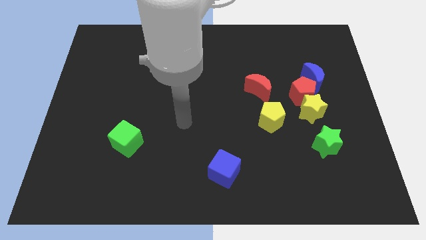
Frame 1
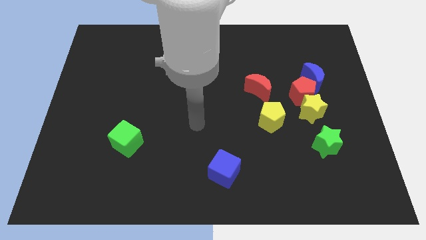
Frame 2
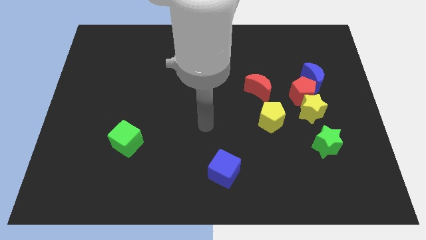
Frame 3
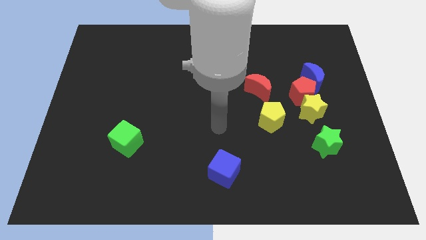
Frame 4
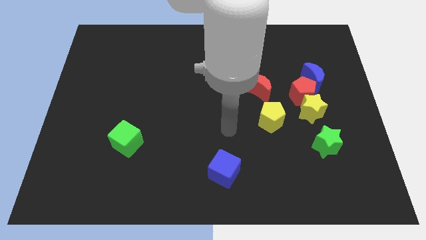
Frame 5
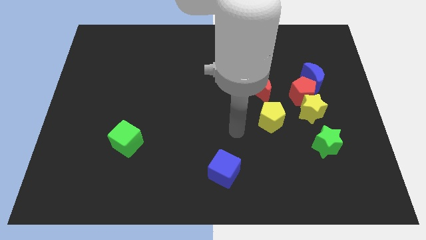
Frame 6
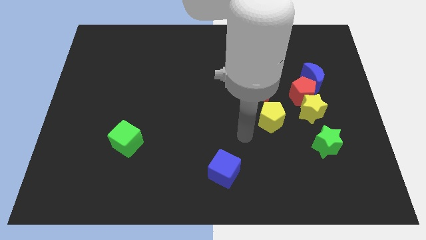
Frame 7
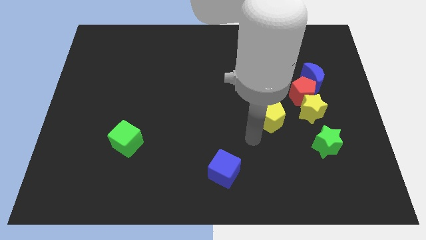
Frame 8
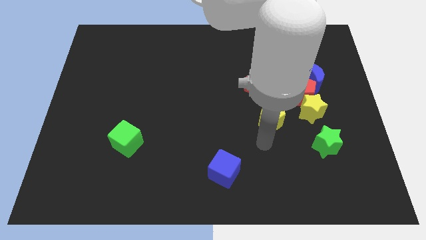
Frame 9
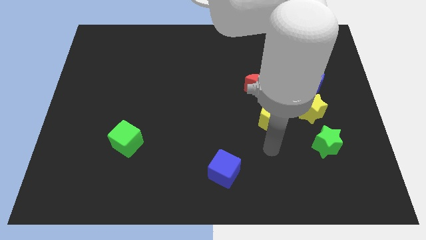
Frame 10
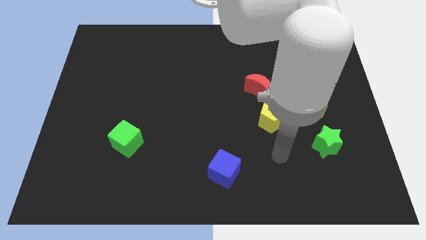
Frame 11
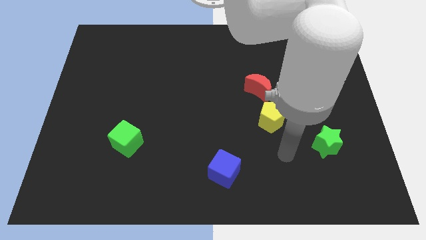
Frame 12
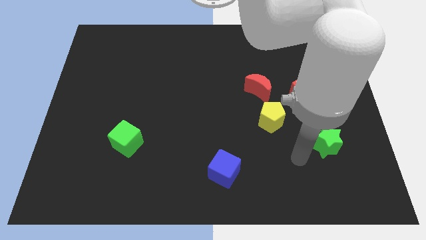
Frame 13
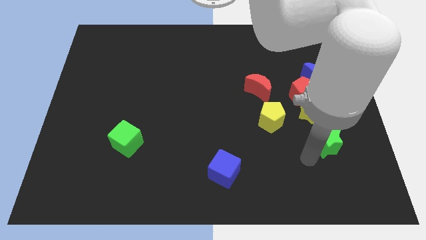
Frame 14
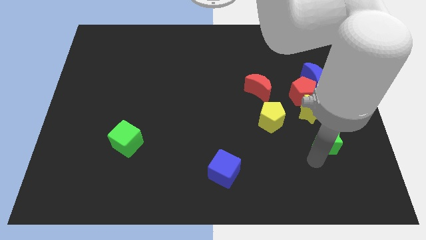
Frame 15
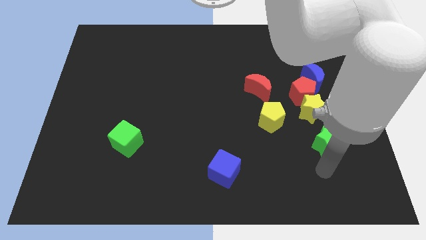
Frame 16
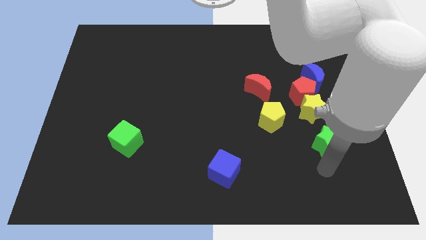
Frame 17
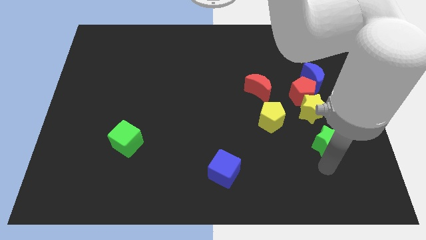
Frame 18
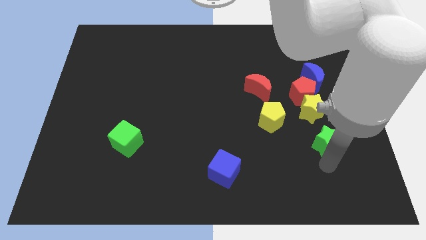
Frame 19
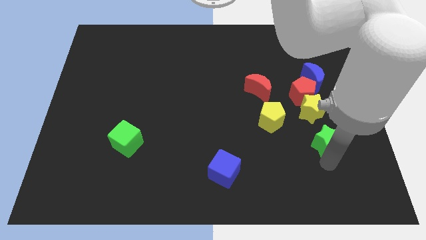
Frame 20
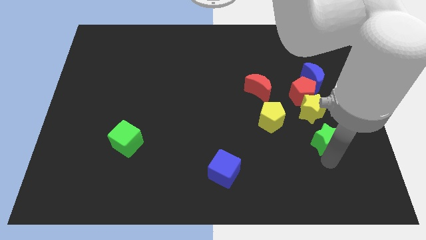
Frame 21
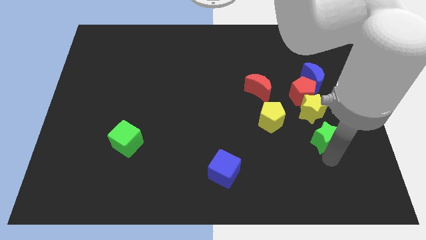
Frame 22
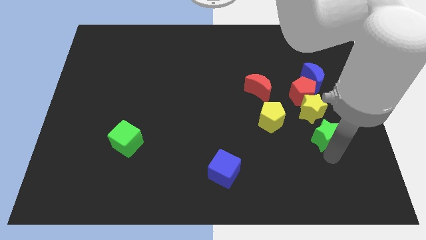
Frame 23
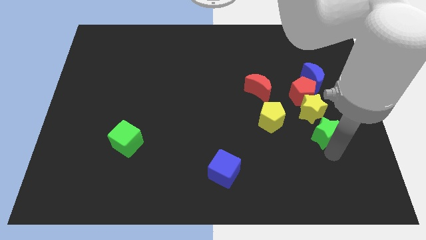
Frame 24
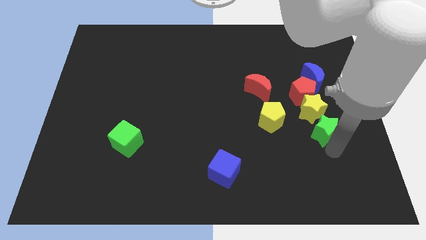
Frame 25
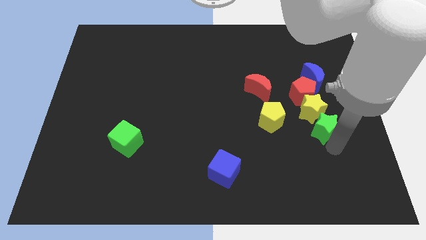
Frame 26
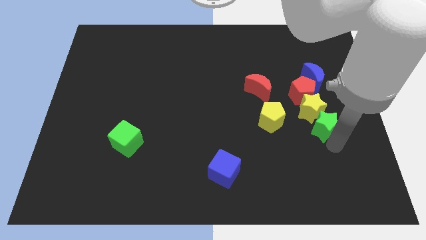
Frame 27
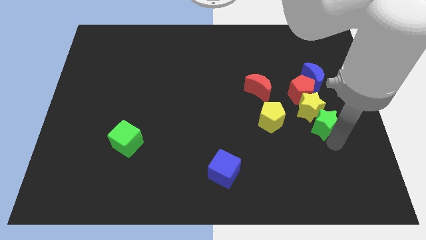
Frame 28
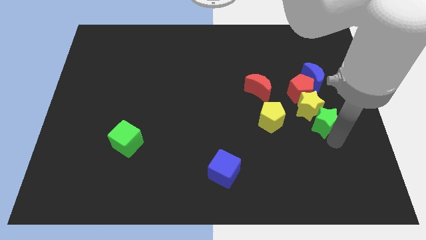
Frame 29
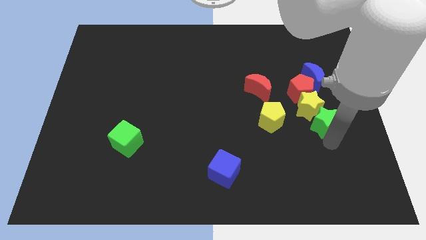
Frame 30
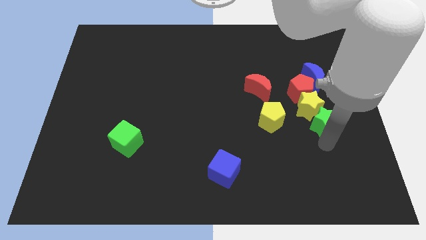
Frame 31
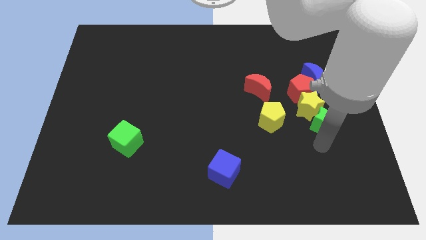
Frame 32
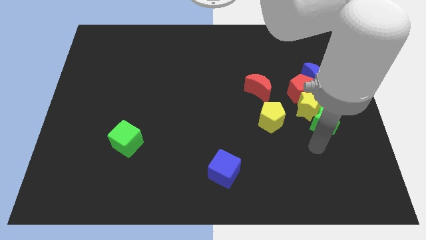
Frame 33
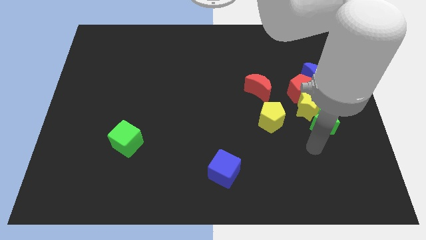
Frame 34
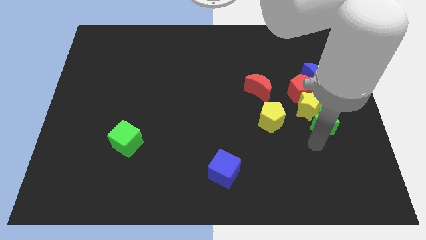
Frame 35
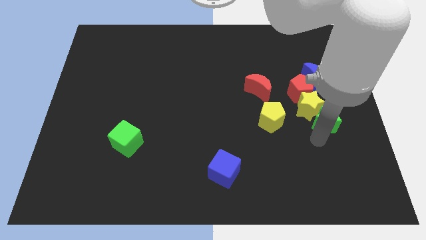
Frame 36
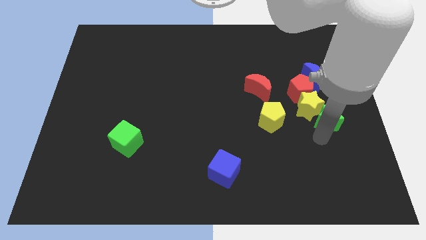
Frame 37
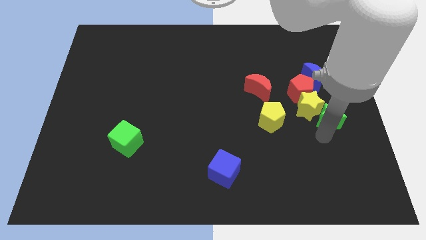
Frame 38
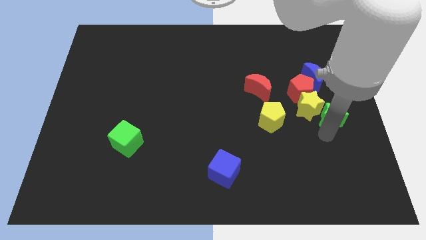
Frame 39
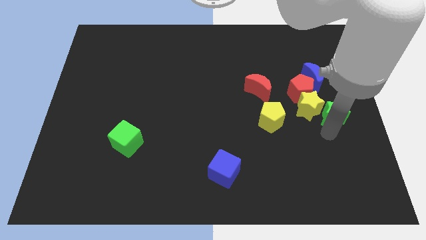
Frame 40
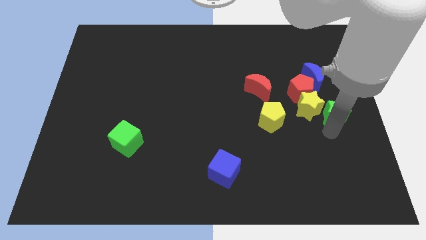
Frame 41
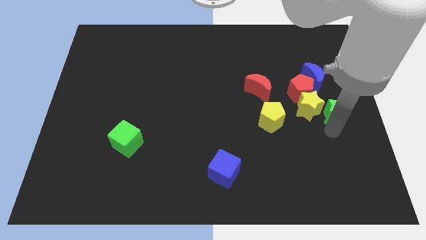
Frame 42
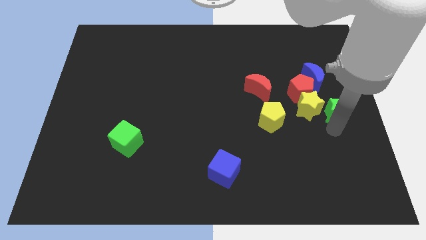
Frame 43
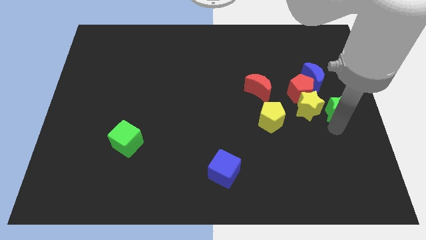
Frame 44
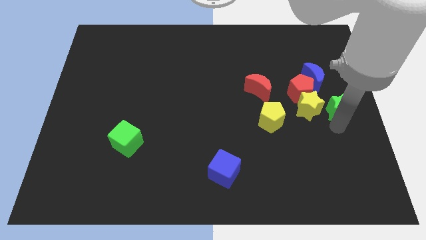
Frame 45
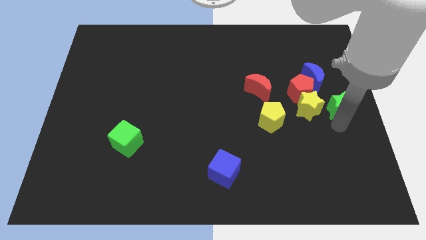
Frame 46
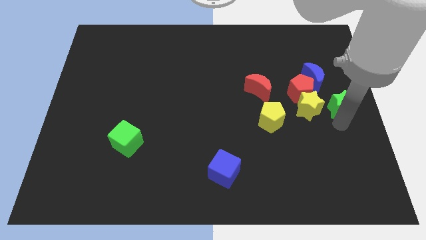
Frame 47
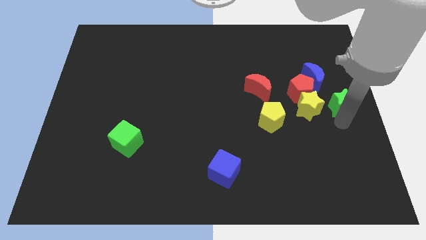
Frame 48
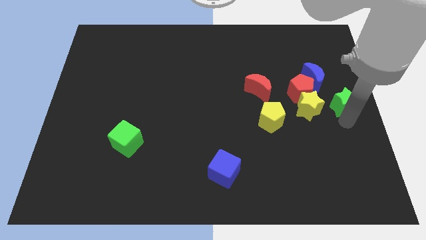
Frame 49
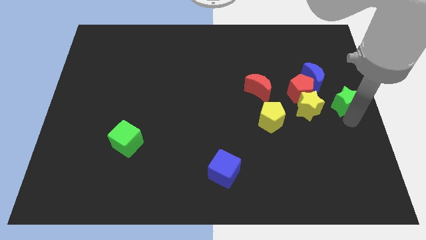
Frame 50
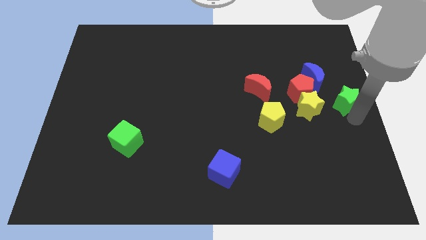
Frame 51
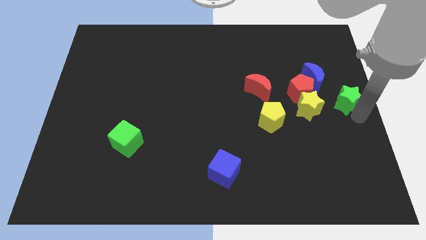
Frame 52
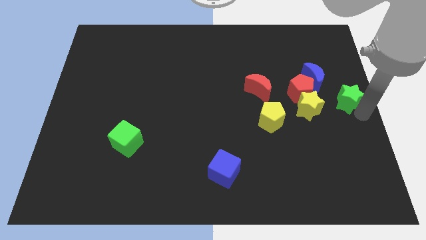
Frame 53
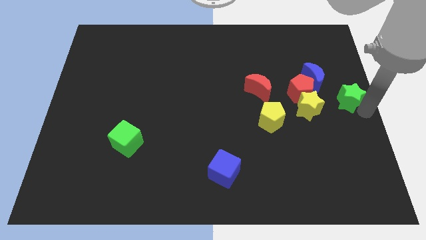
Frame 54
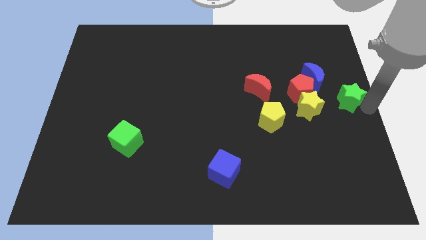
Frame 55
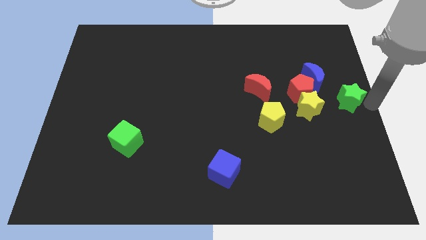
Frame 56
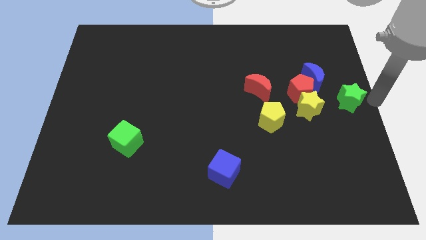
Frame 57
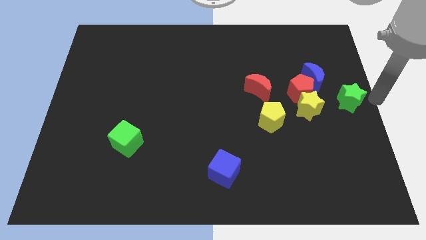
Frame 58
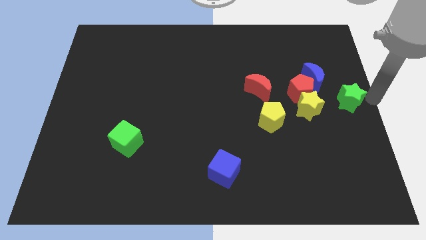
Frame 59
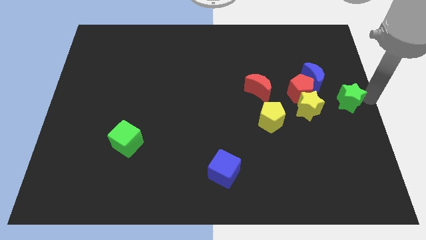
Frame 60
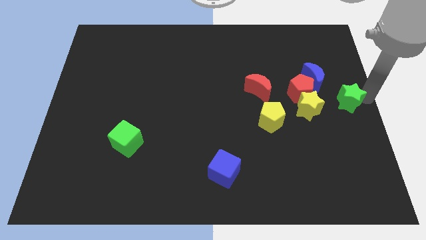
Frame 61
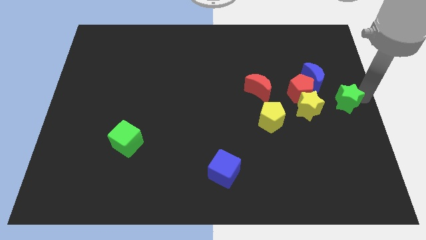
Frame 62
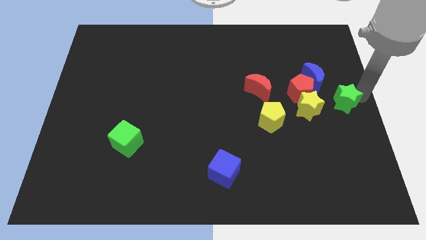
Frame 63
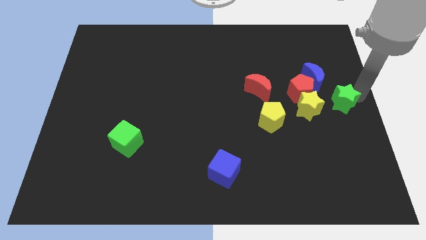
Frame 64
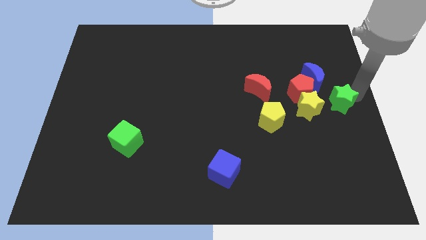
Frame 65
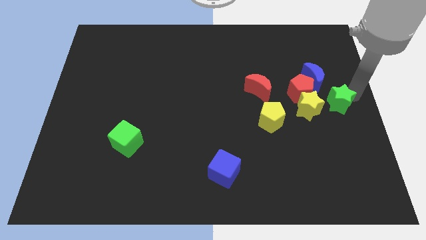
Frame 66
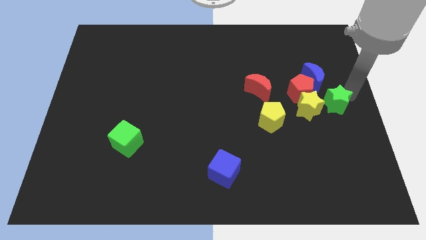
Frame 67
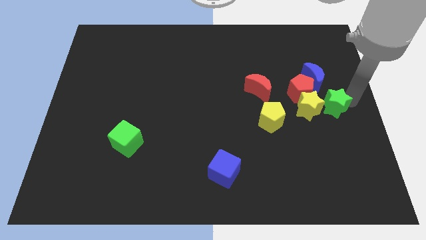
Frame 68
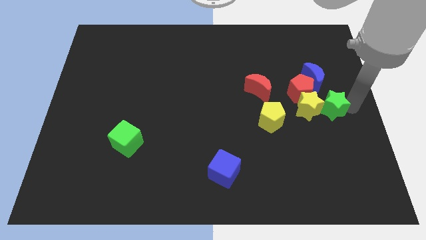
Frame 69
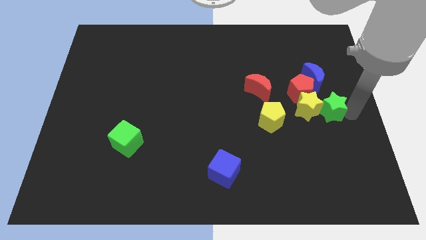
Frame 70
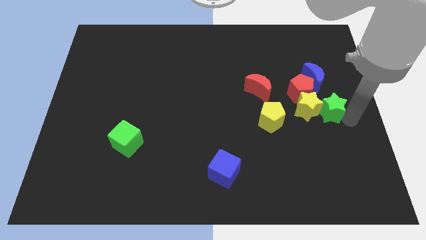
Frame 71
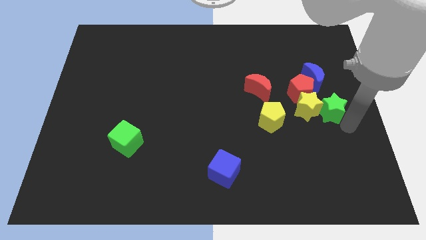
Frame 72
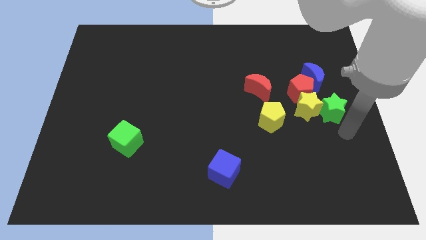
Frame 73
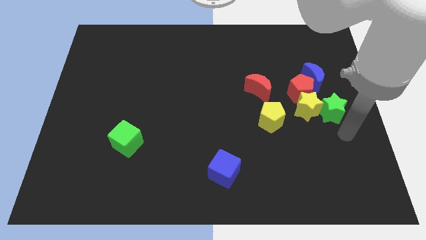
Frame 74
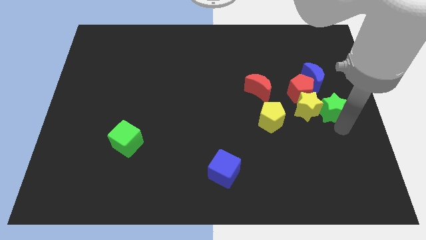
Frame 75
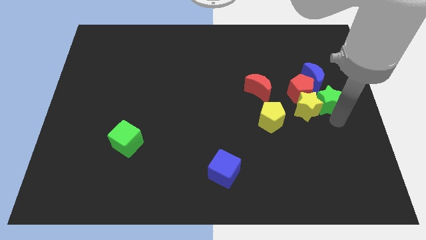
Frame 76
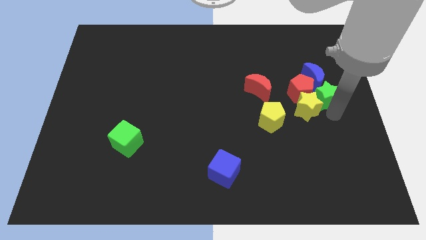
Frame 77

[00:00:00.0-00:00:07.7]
slide the green star next to the blue moon

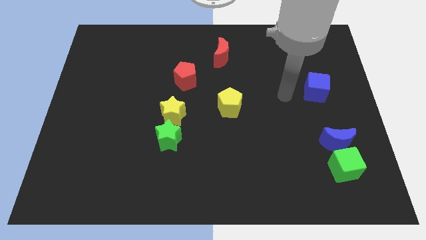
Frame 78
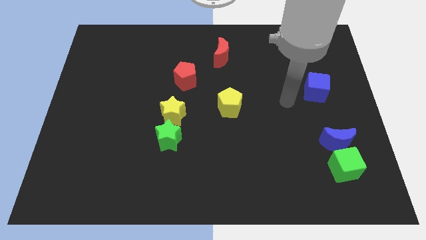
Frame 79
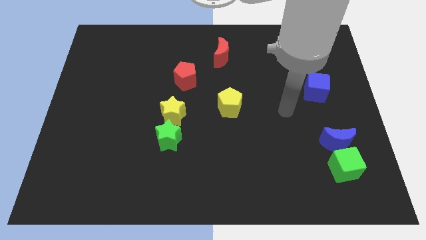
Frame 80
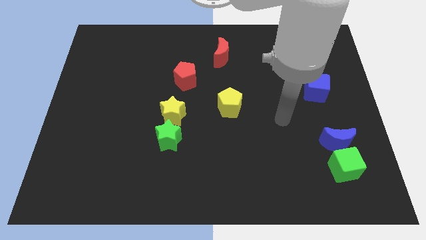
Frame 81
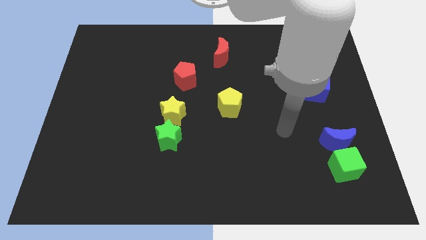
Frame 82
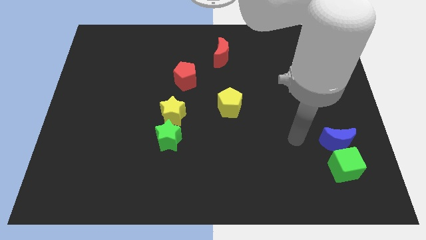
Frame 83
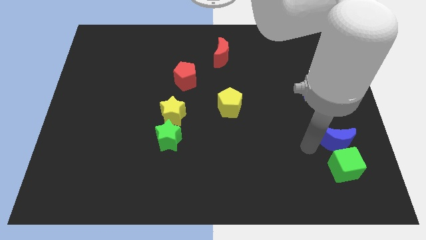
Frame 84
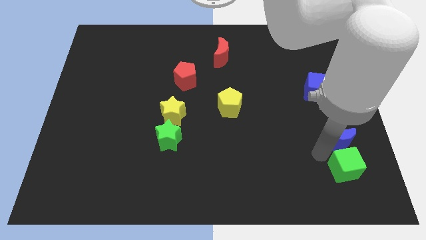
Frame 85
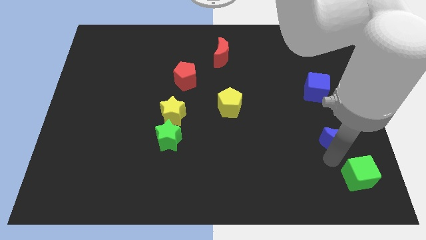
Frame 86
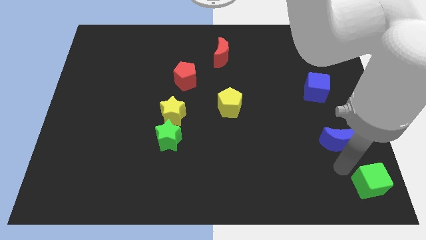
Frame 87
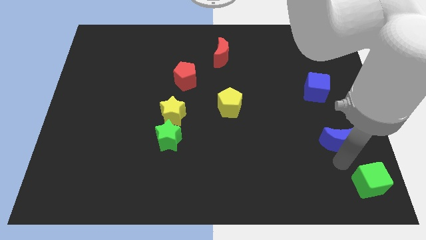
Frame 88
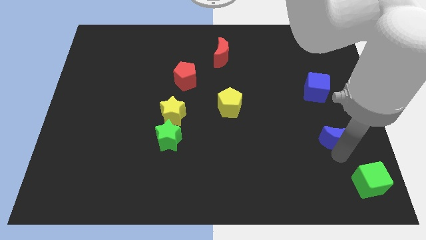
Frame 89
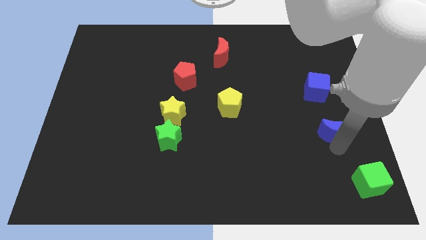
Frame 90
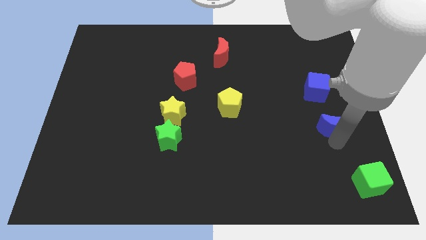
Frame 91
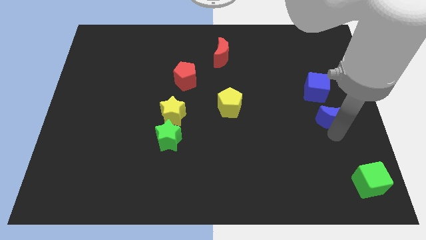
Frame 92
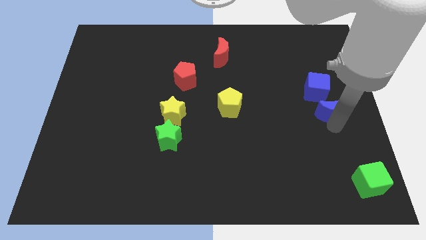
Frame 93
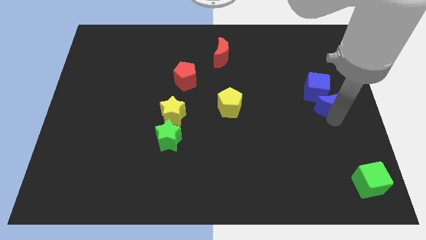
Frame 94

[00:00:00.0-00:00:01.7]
slide the blue moon next to the blue cube
